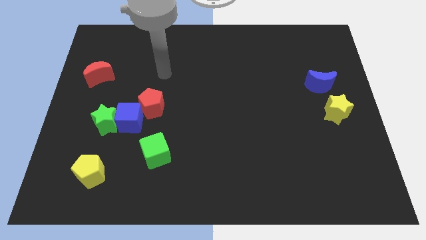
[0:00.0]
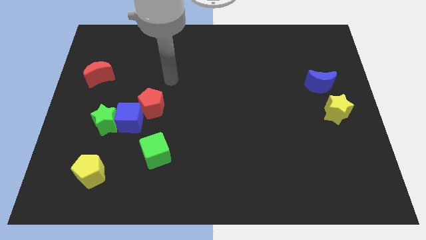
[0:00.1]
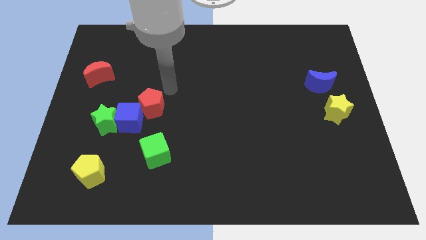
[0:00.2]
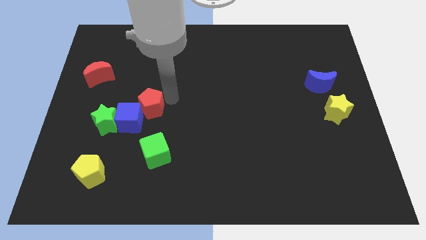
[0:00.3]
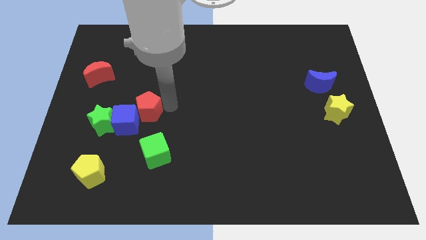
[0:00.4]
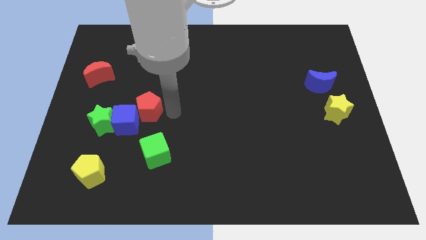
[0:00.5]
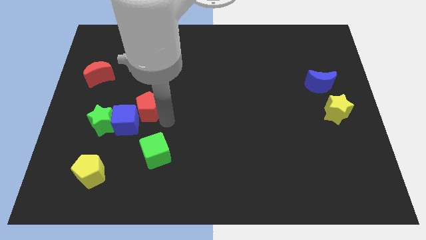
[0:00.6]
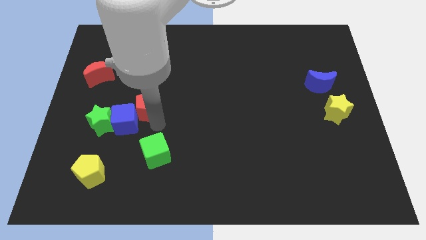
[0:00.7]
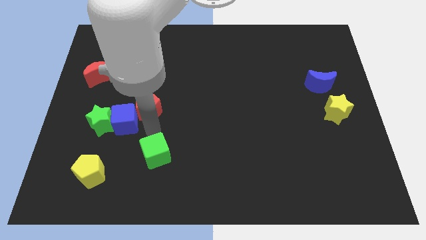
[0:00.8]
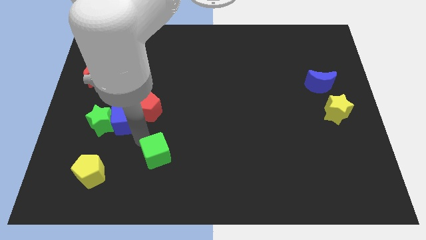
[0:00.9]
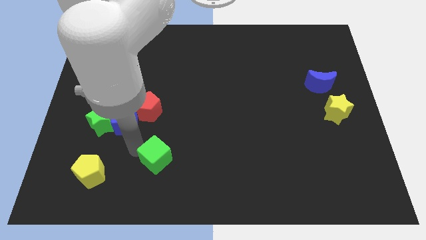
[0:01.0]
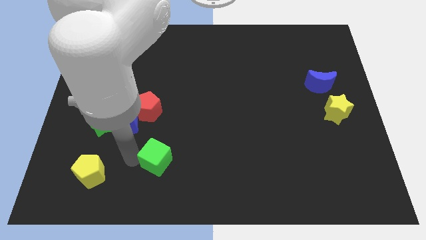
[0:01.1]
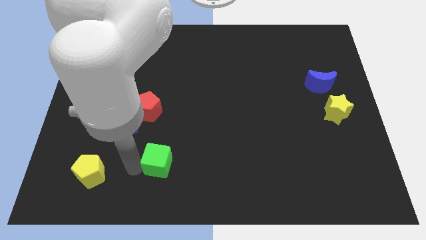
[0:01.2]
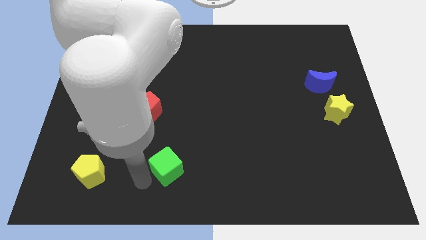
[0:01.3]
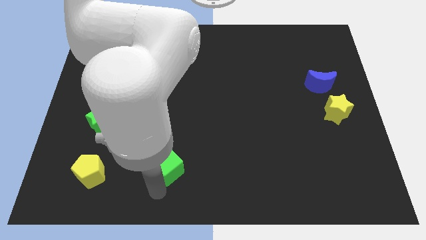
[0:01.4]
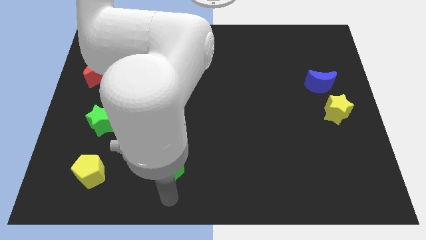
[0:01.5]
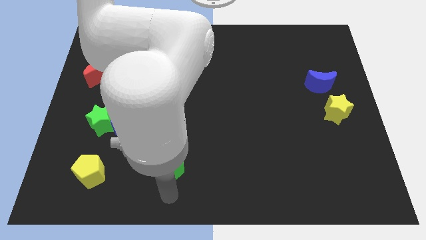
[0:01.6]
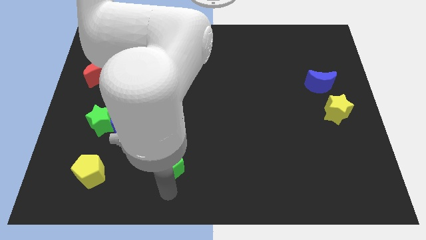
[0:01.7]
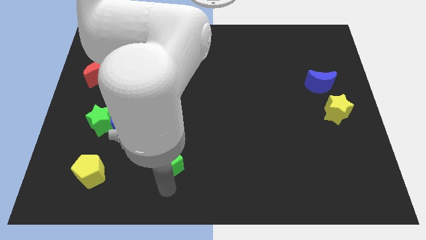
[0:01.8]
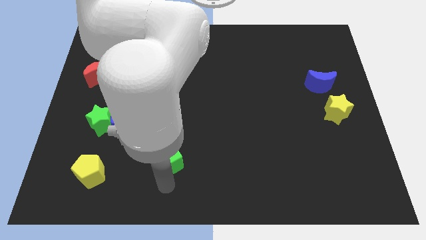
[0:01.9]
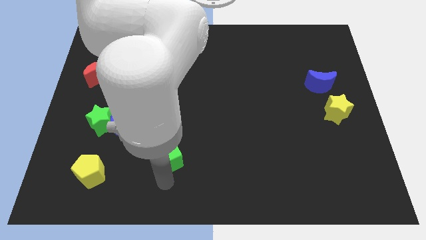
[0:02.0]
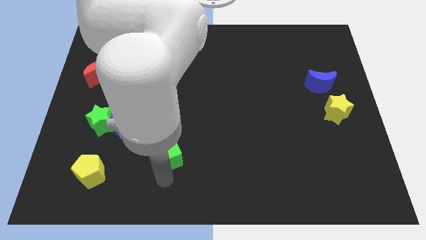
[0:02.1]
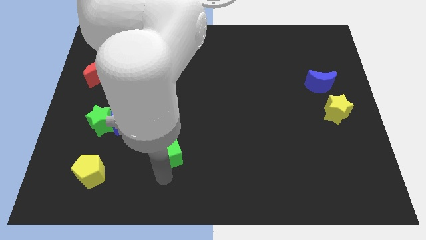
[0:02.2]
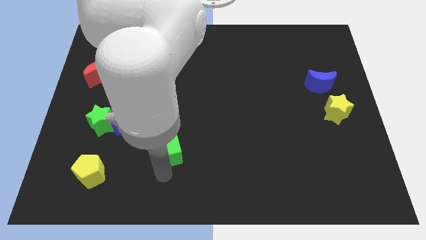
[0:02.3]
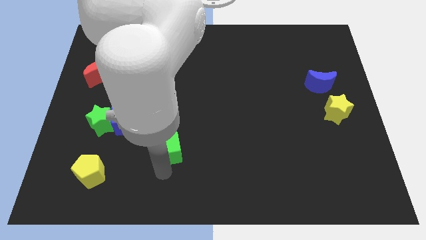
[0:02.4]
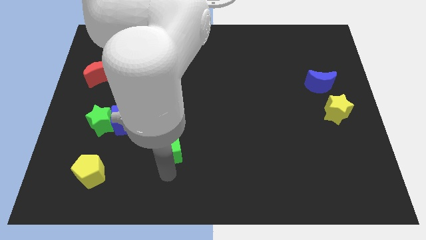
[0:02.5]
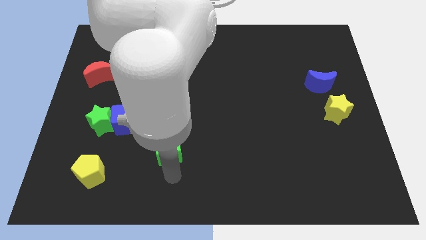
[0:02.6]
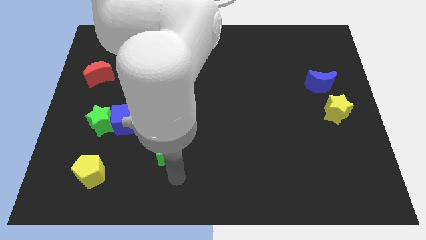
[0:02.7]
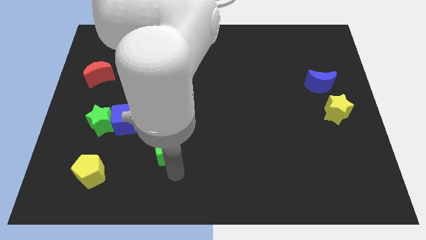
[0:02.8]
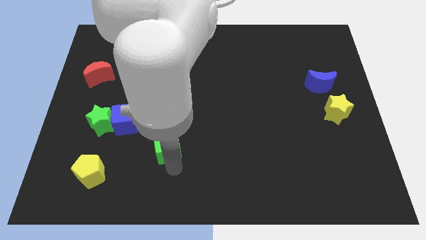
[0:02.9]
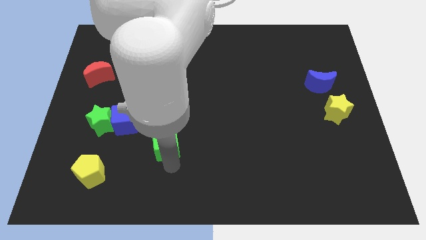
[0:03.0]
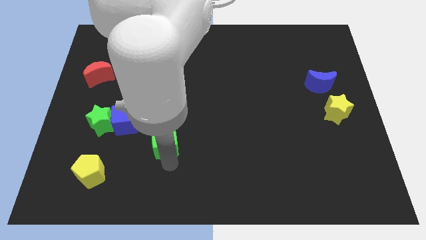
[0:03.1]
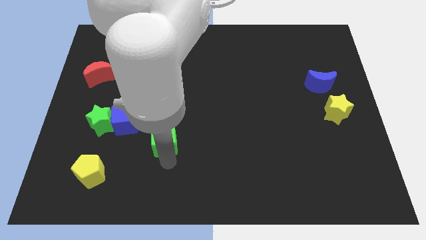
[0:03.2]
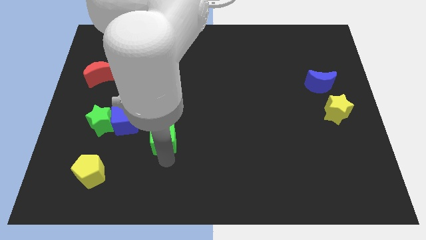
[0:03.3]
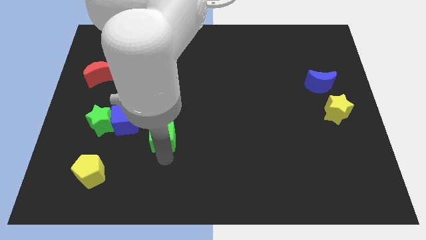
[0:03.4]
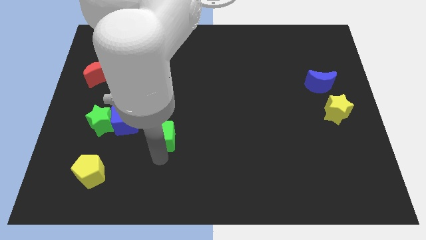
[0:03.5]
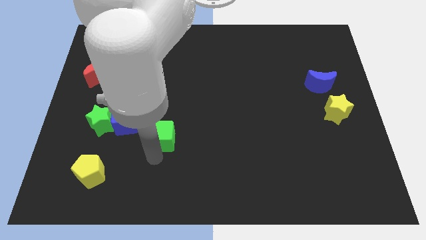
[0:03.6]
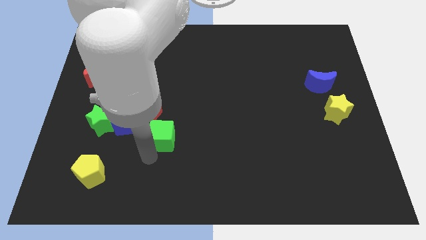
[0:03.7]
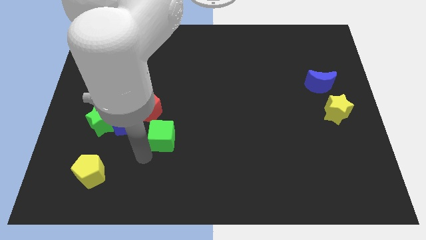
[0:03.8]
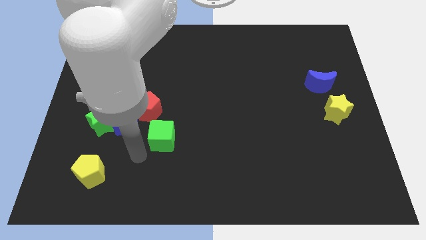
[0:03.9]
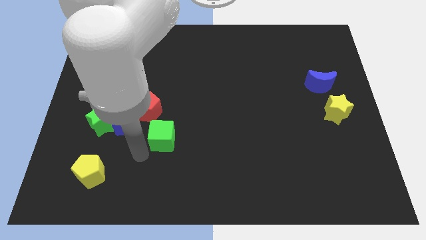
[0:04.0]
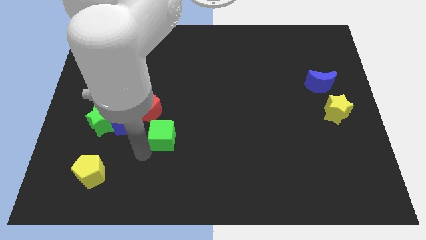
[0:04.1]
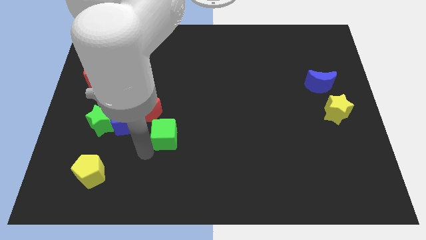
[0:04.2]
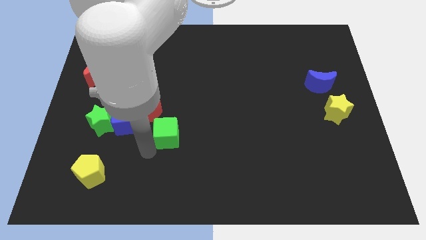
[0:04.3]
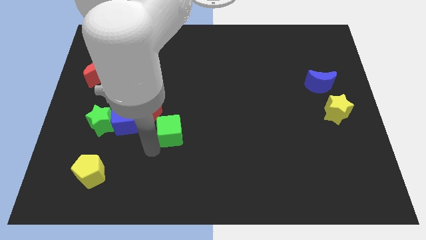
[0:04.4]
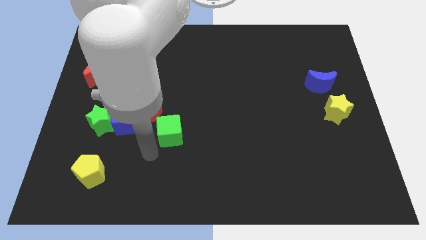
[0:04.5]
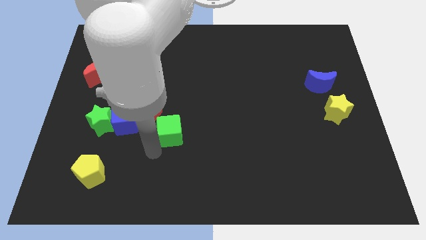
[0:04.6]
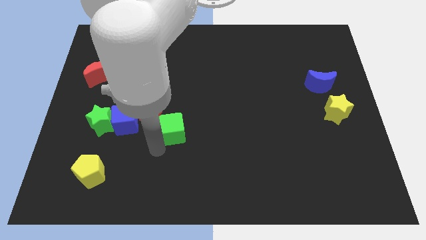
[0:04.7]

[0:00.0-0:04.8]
put the green cube to the center

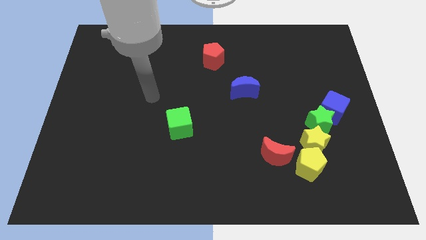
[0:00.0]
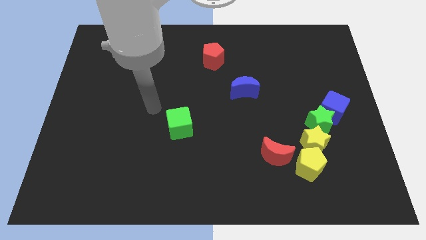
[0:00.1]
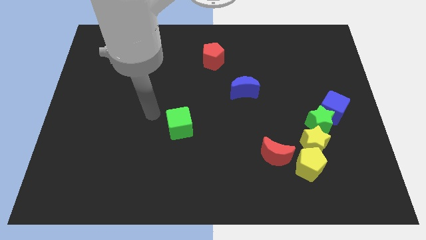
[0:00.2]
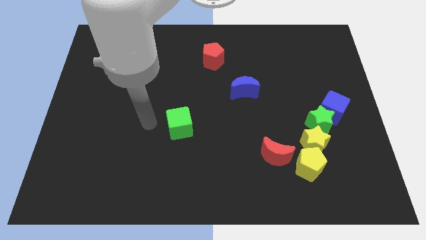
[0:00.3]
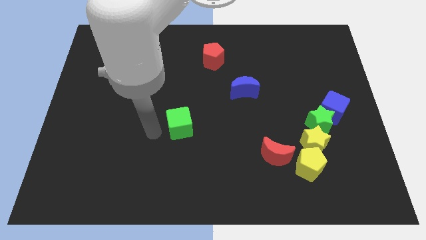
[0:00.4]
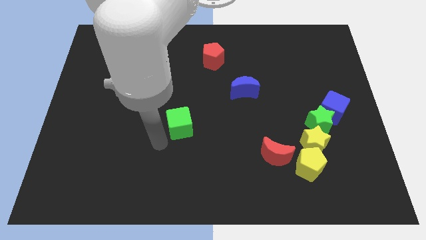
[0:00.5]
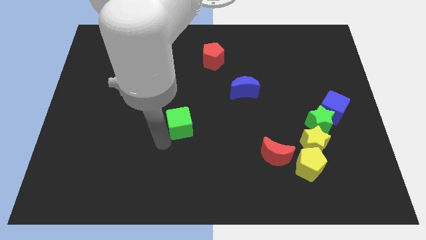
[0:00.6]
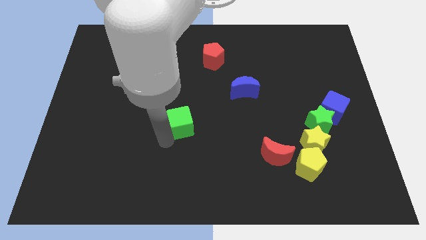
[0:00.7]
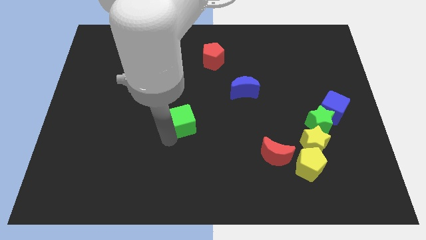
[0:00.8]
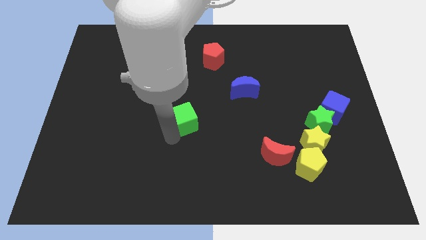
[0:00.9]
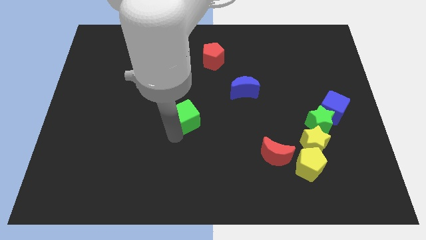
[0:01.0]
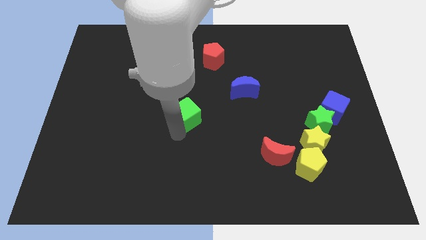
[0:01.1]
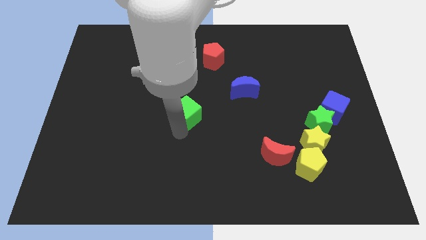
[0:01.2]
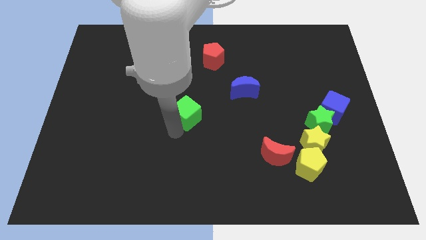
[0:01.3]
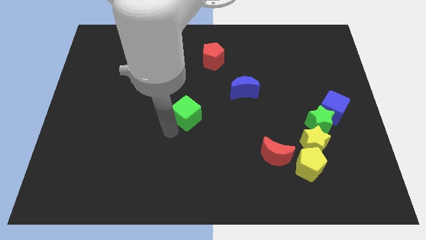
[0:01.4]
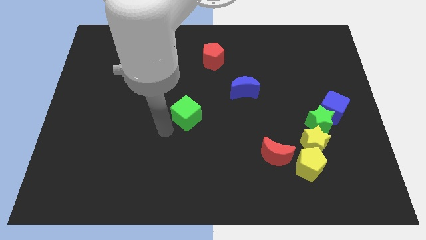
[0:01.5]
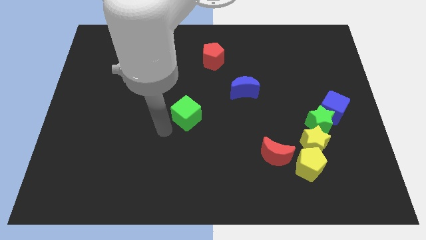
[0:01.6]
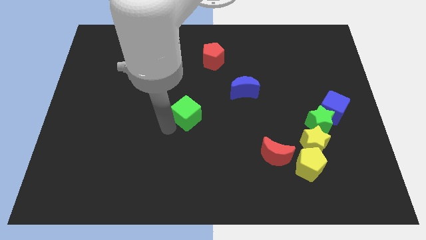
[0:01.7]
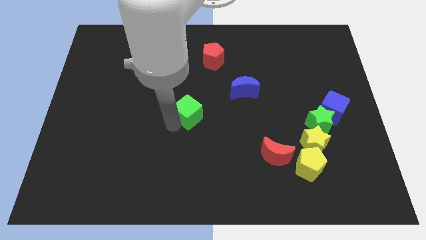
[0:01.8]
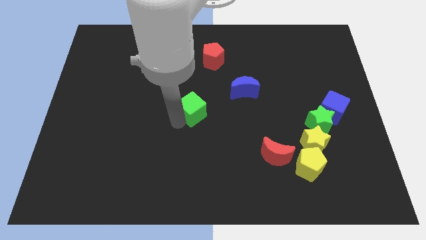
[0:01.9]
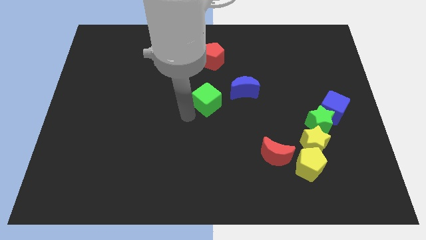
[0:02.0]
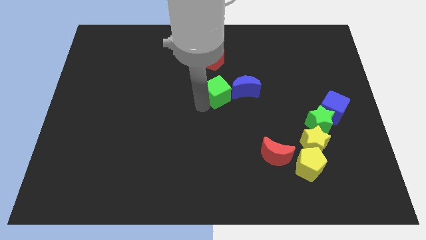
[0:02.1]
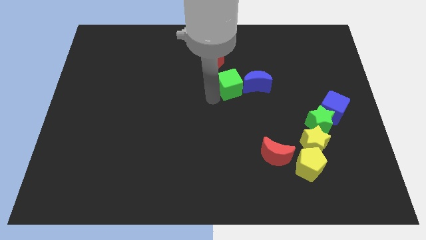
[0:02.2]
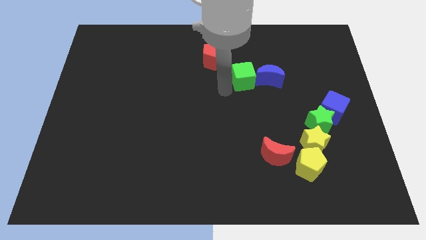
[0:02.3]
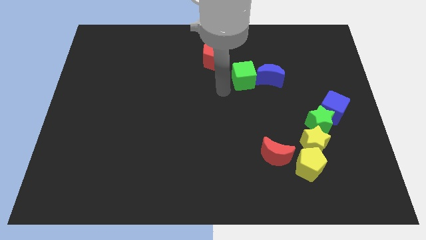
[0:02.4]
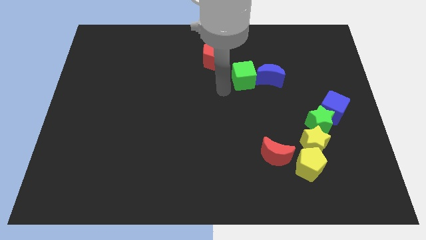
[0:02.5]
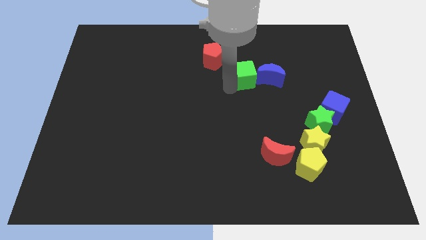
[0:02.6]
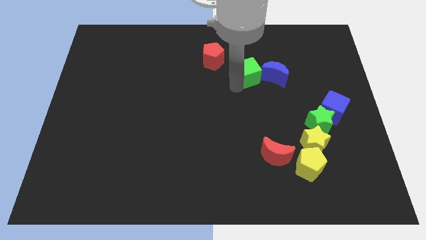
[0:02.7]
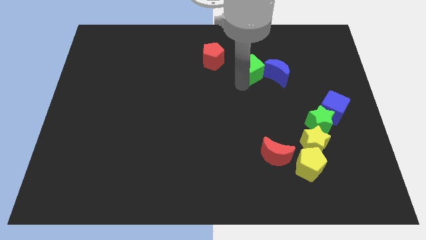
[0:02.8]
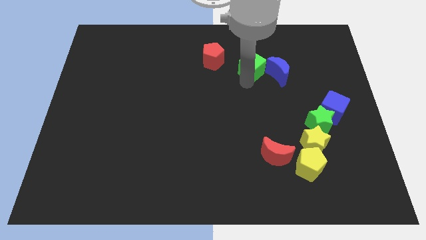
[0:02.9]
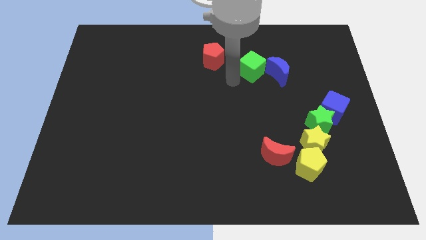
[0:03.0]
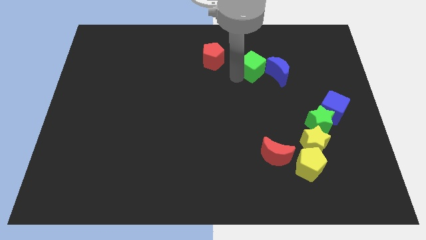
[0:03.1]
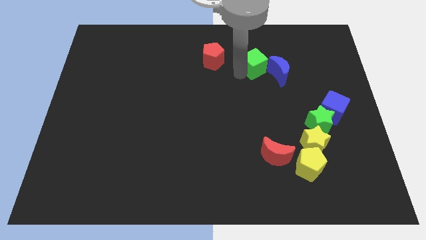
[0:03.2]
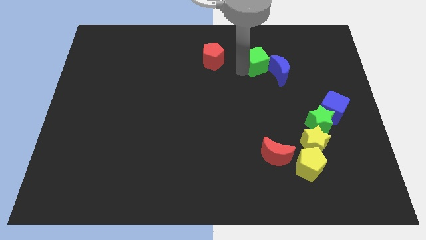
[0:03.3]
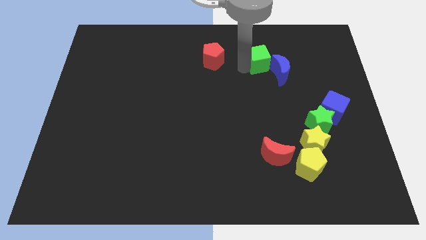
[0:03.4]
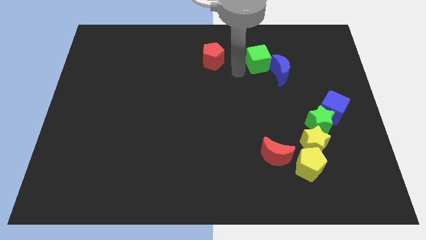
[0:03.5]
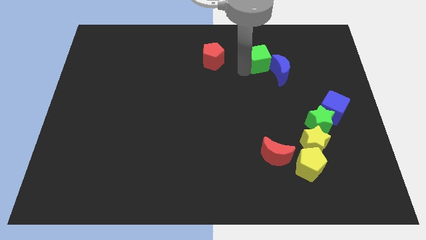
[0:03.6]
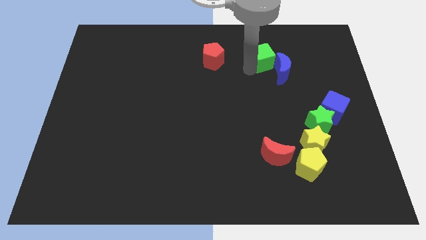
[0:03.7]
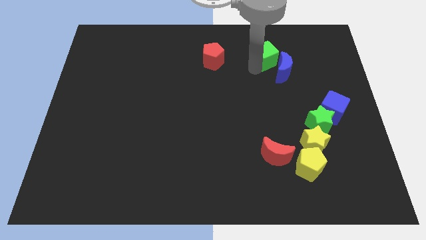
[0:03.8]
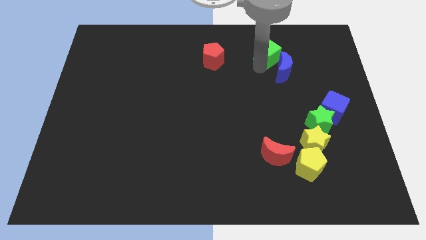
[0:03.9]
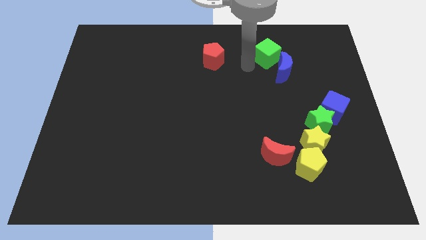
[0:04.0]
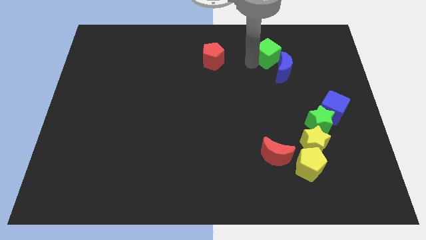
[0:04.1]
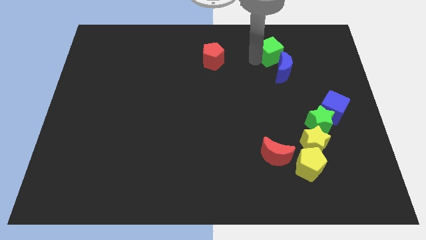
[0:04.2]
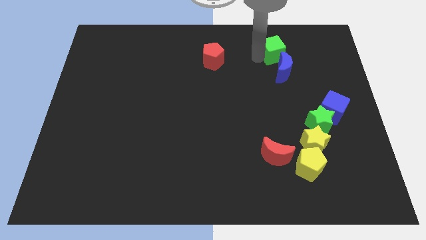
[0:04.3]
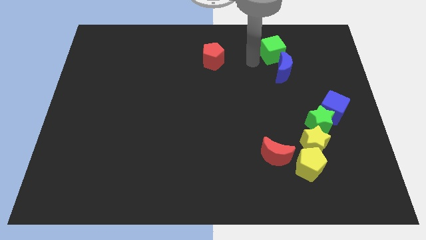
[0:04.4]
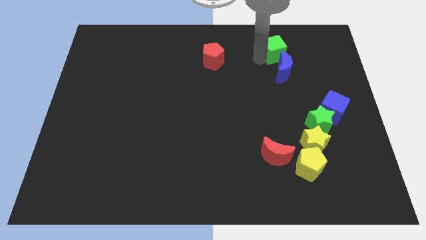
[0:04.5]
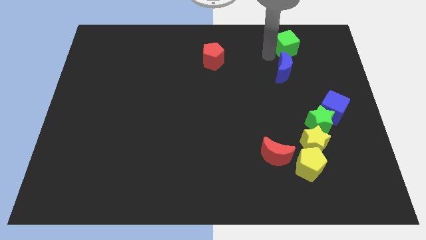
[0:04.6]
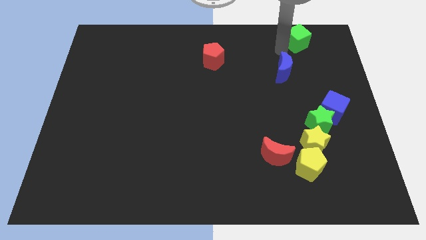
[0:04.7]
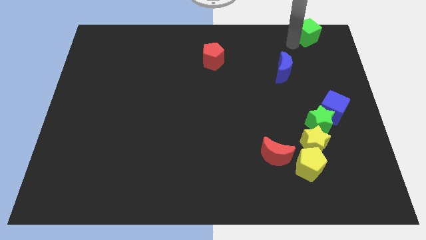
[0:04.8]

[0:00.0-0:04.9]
move the green cube to the upper right corner
